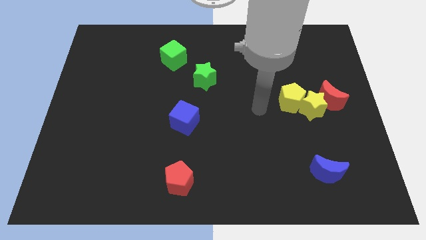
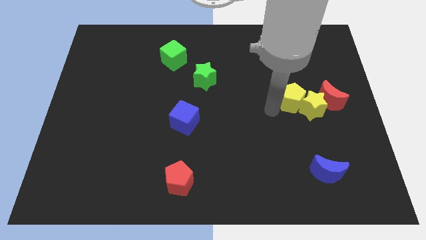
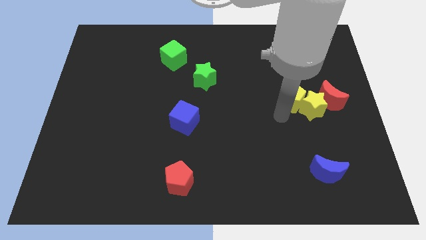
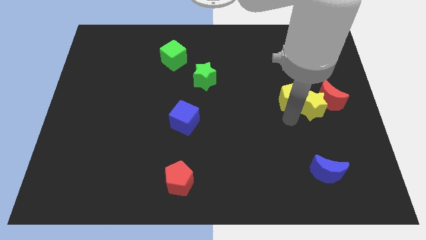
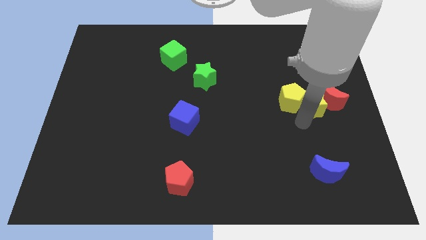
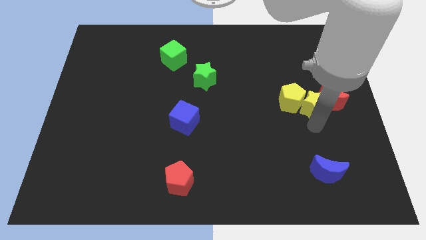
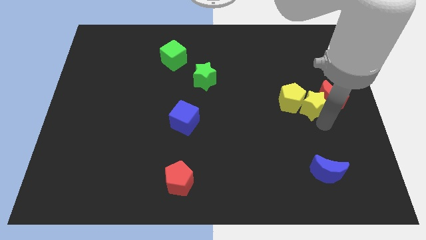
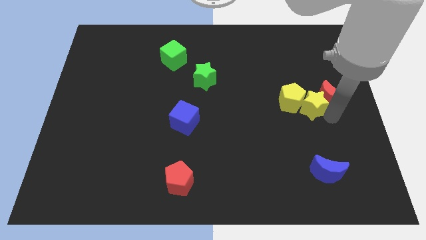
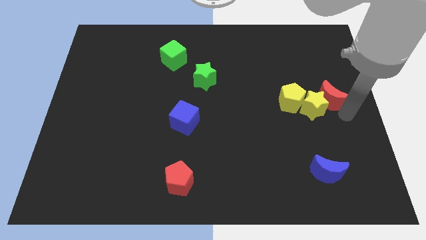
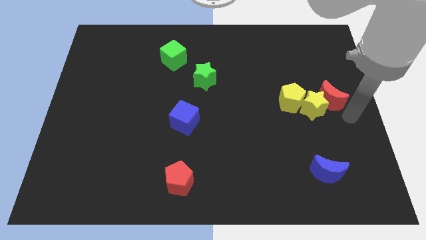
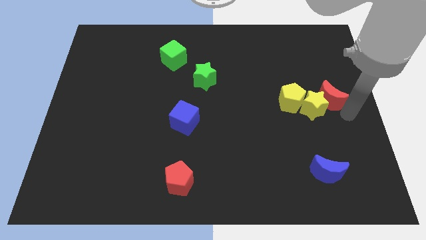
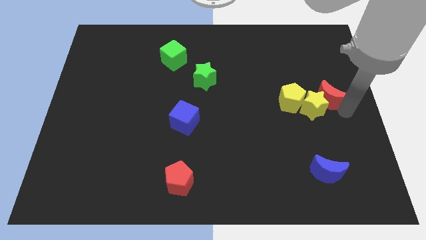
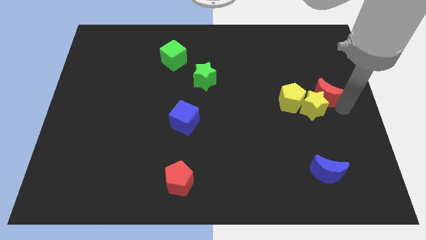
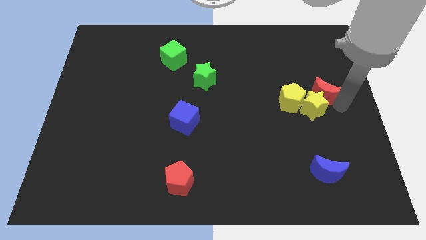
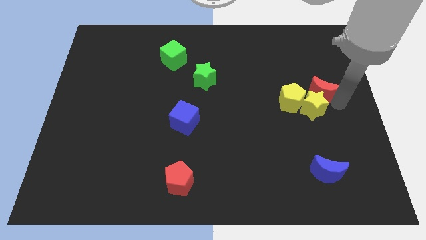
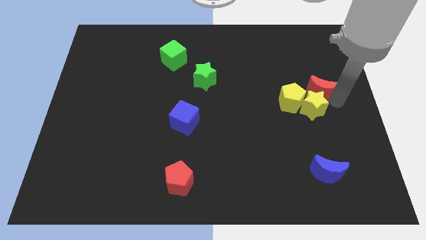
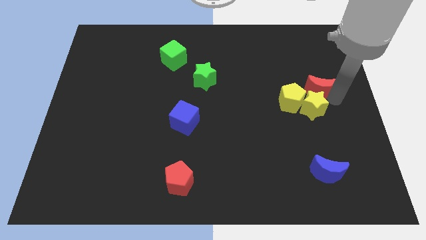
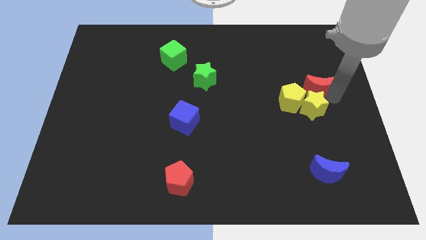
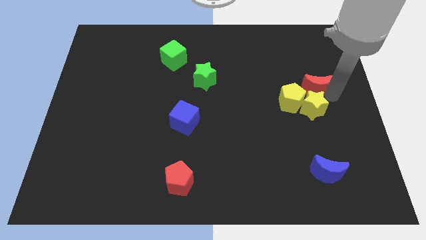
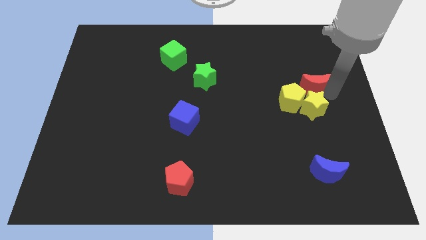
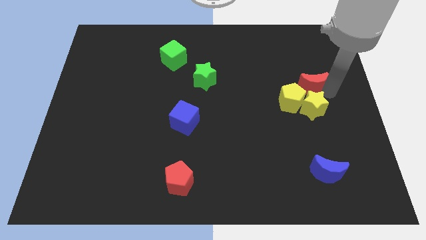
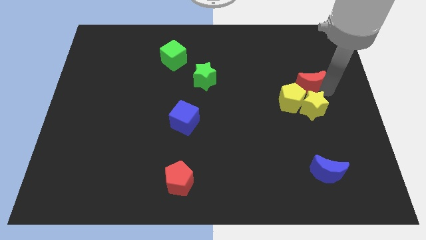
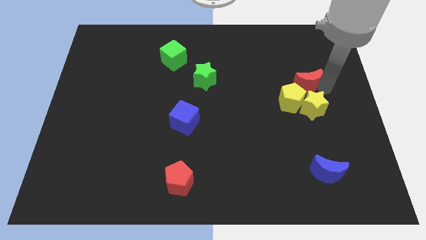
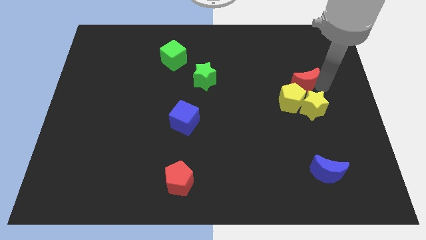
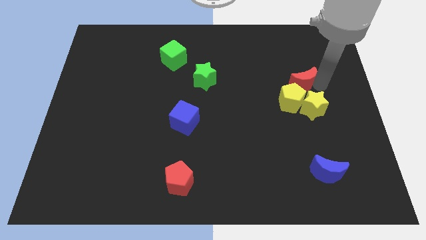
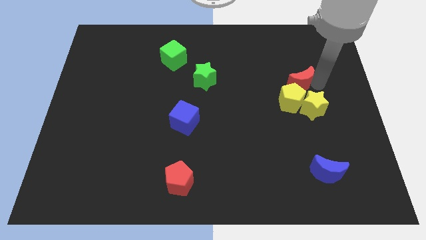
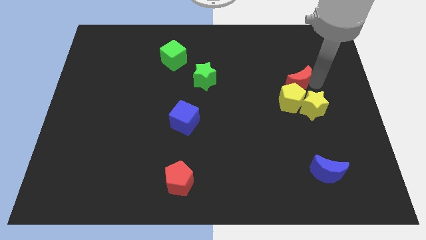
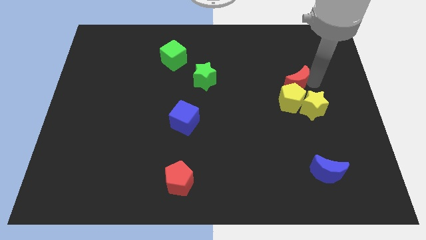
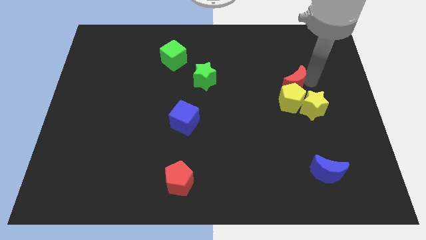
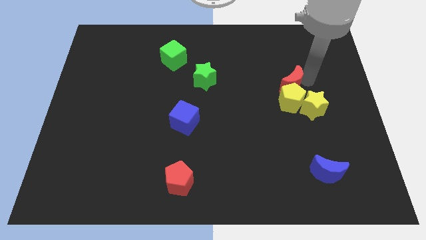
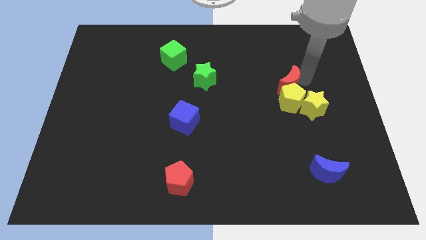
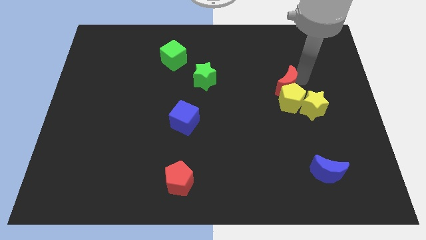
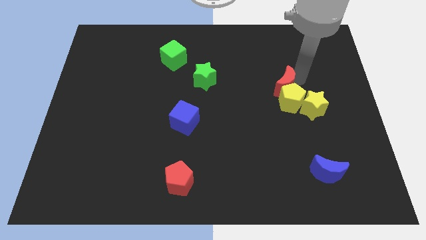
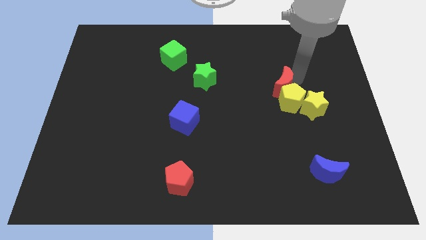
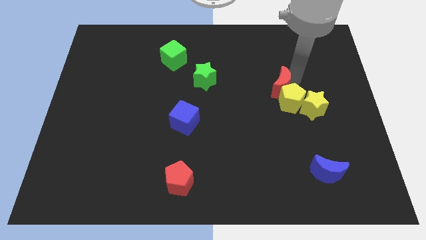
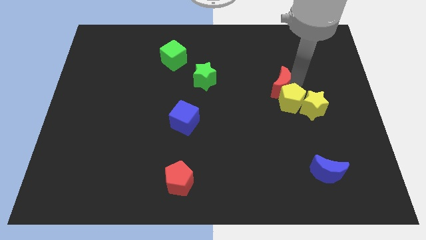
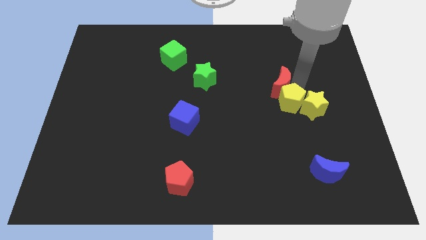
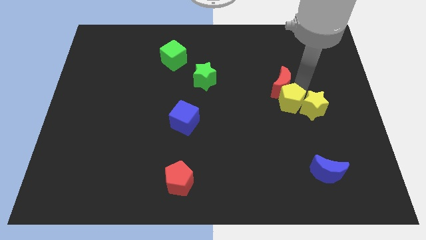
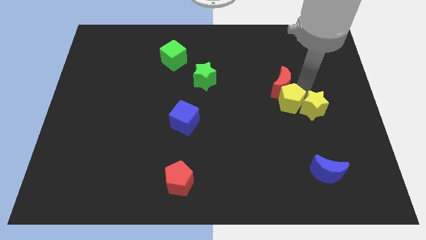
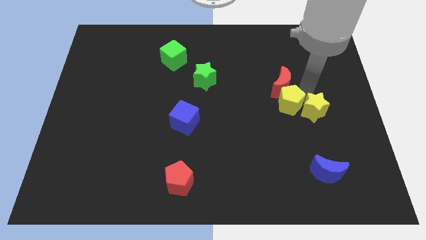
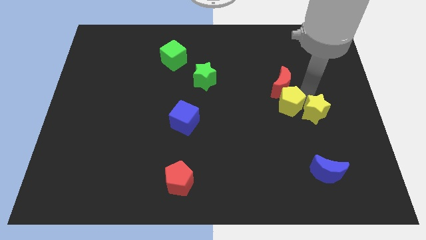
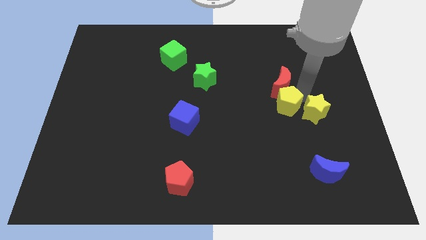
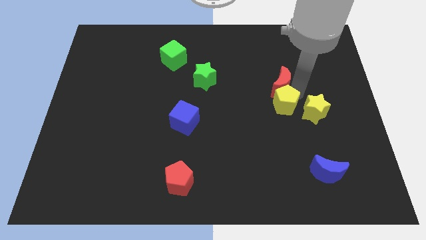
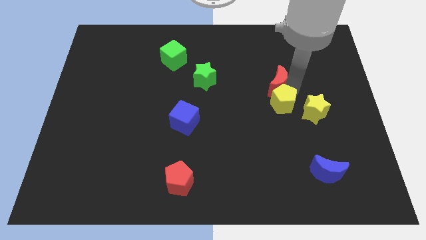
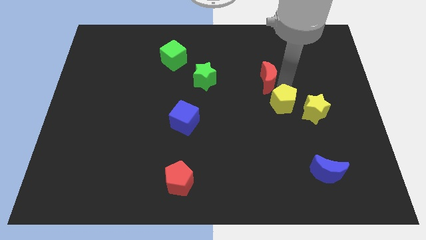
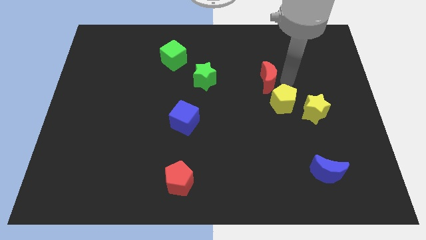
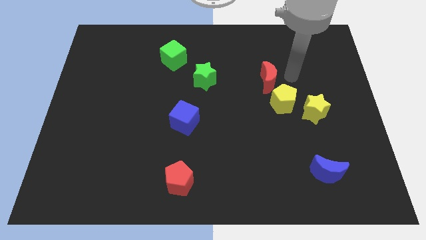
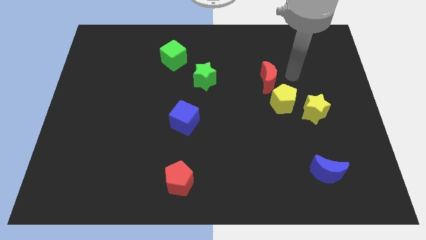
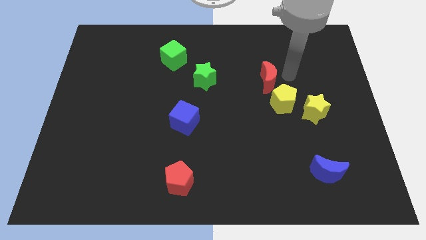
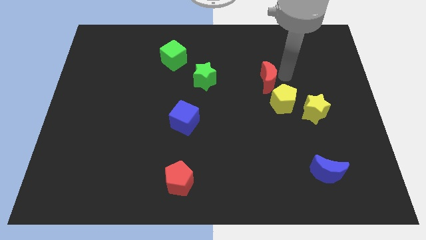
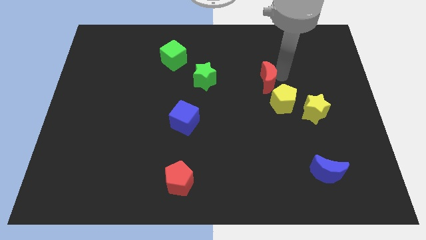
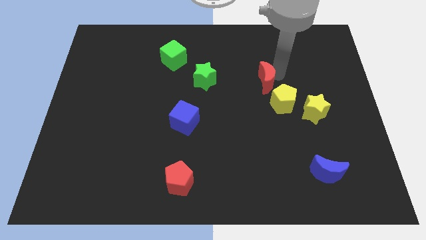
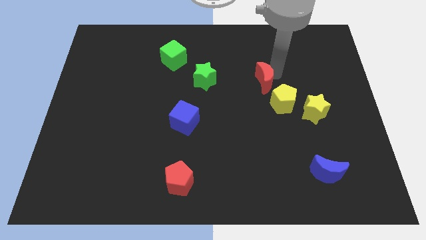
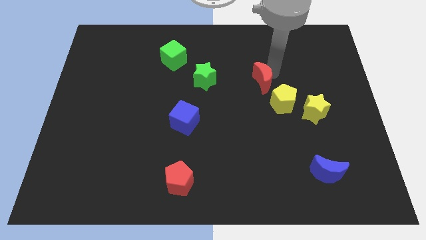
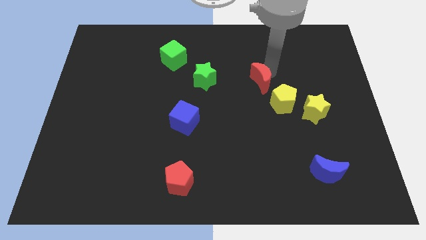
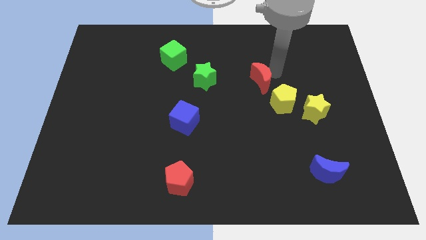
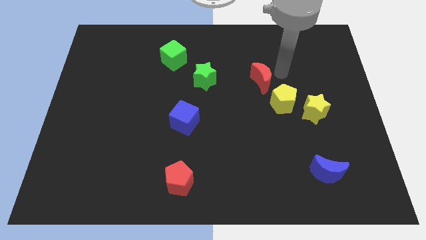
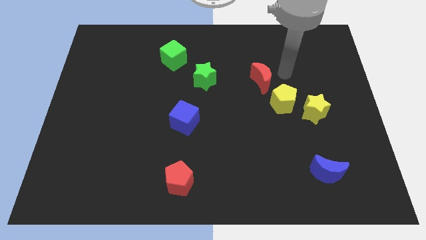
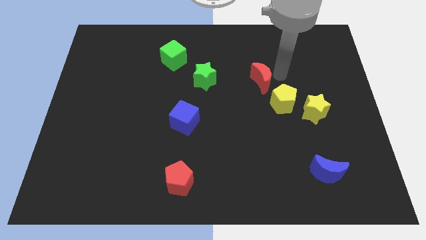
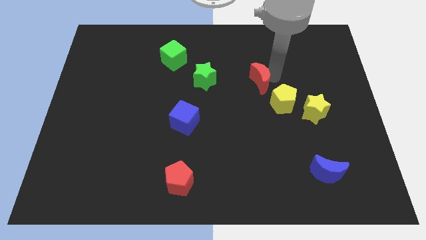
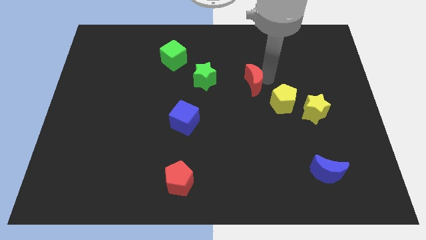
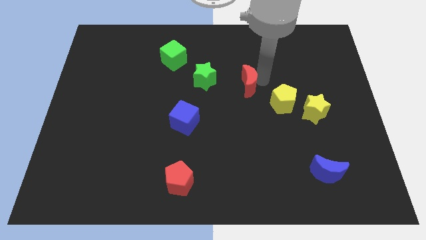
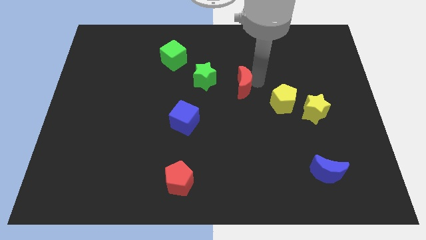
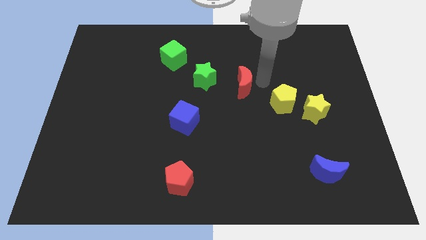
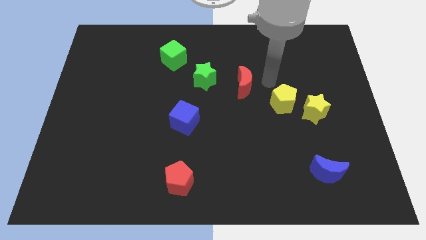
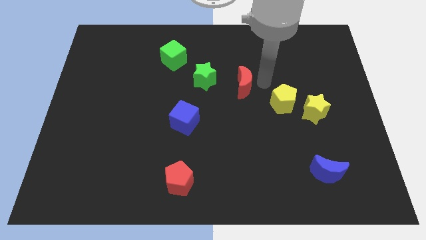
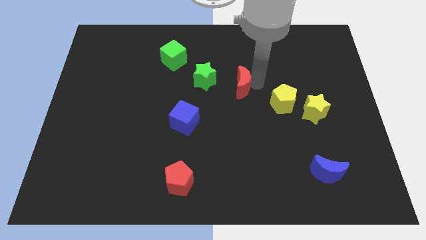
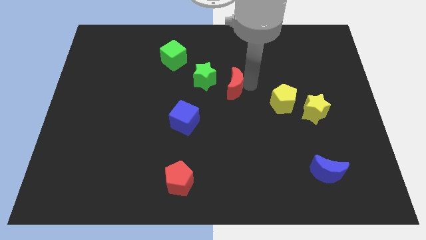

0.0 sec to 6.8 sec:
move the red moon to the left

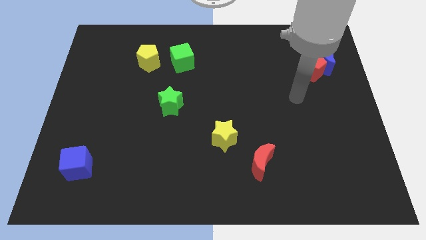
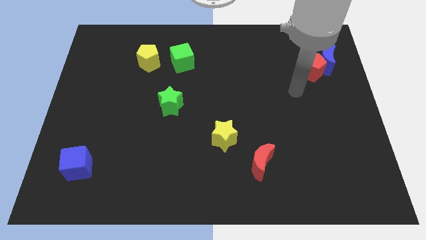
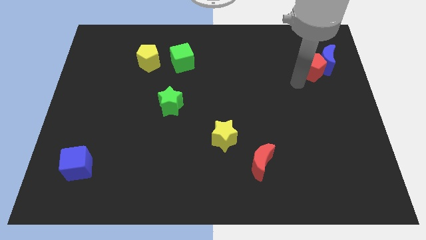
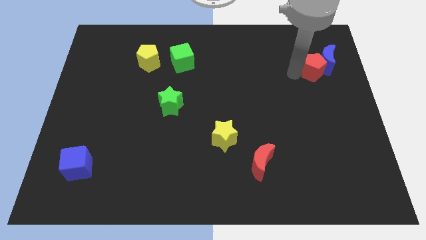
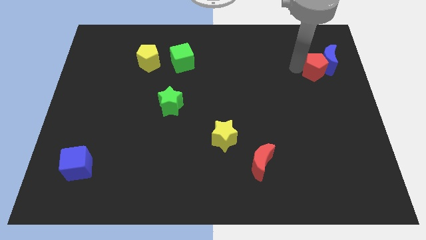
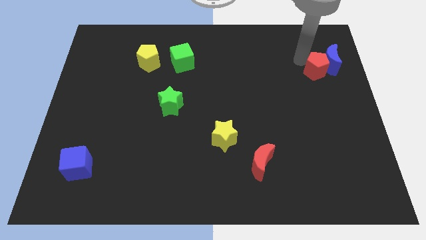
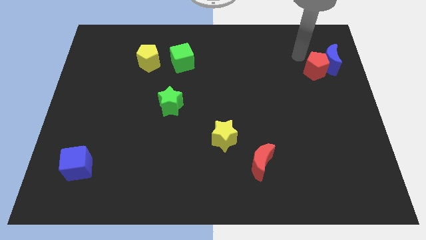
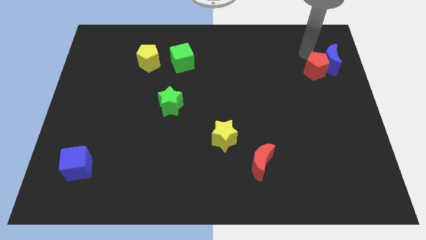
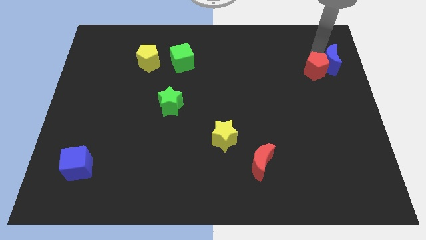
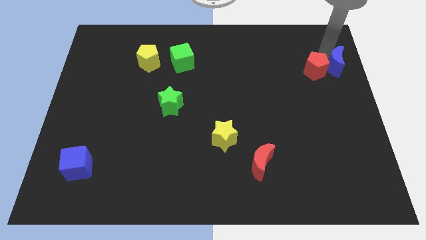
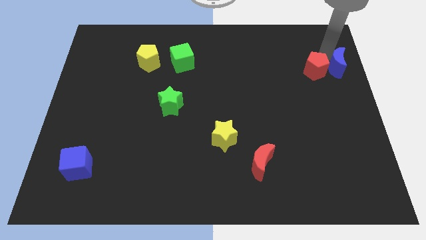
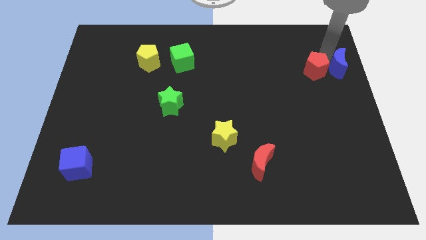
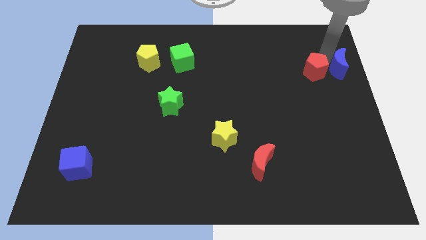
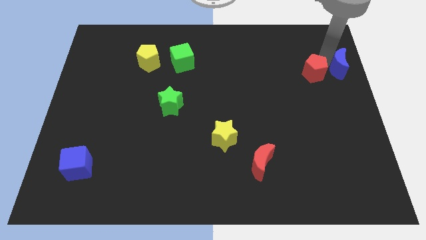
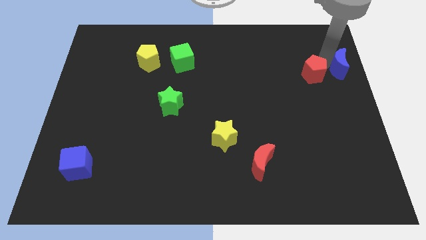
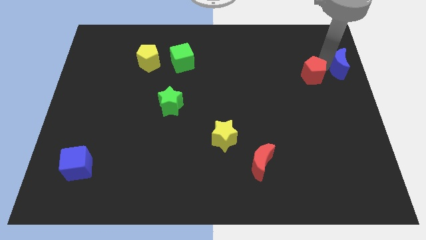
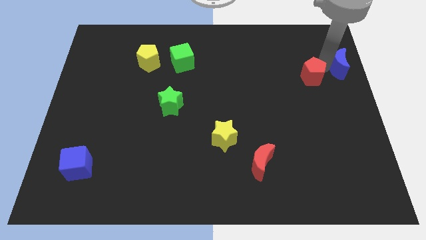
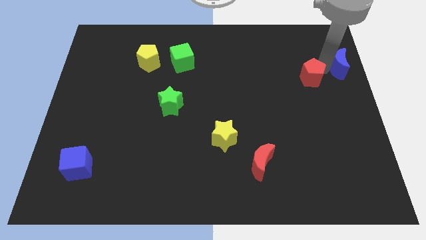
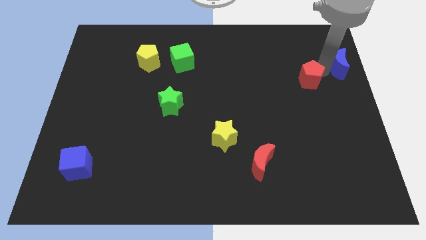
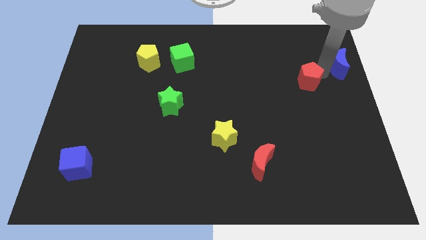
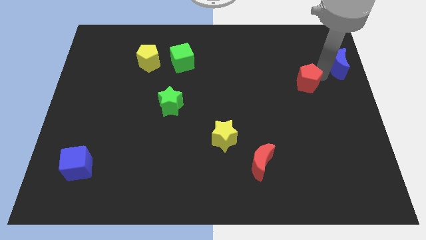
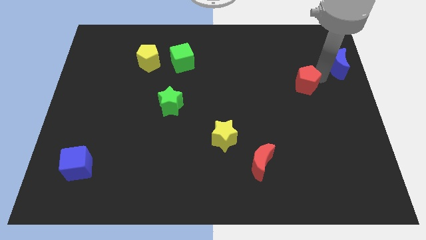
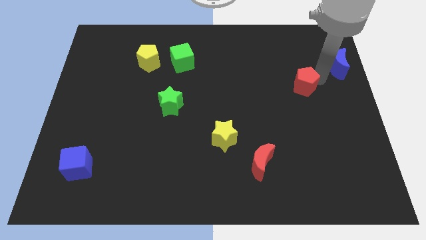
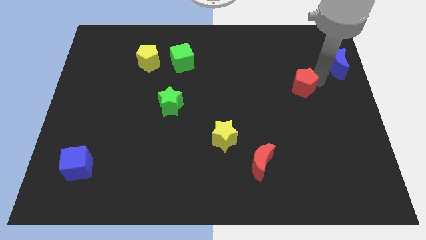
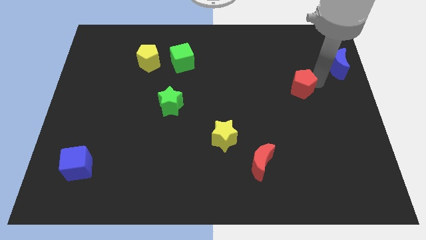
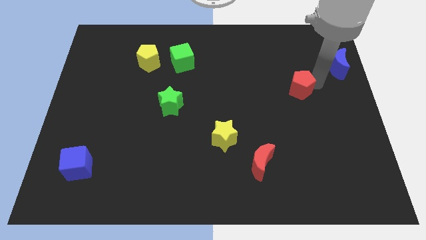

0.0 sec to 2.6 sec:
push the red pentagon a little downwards and then left
